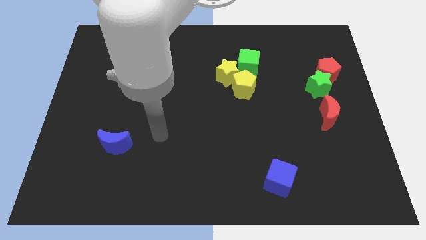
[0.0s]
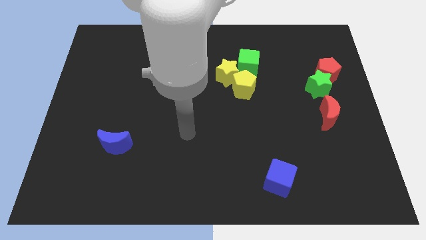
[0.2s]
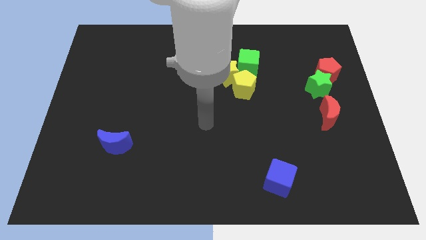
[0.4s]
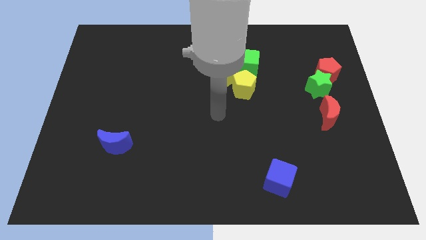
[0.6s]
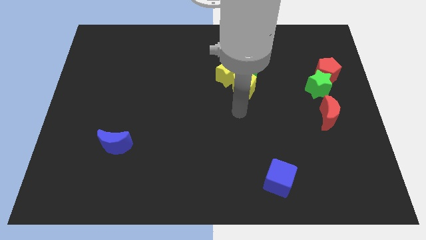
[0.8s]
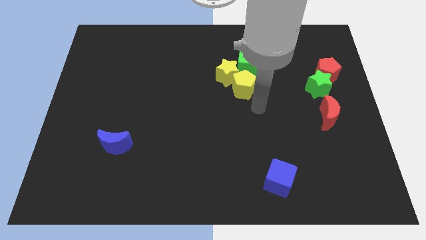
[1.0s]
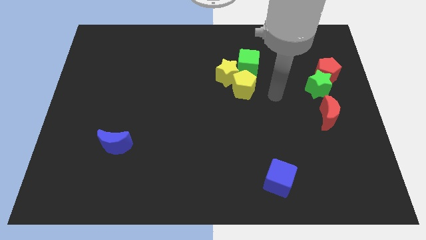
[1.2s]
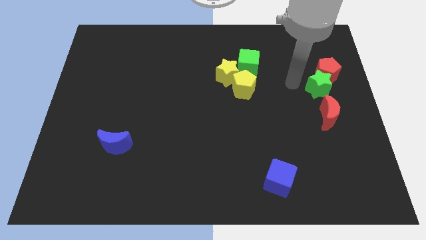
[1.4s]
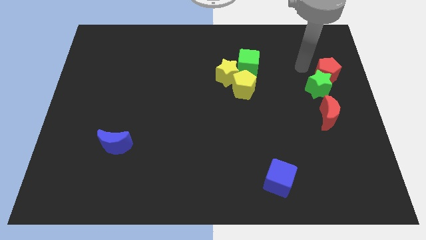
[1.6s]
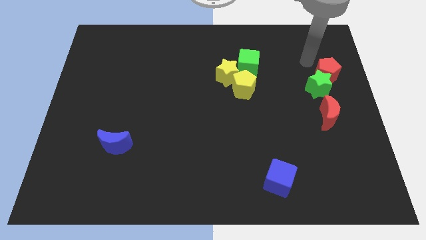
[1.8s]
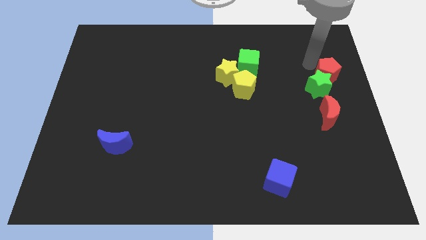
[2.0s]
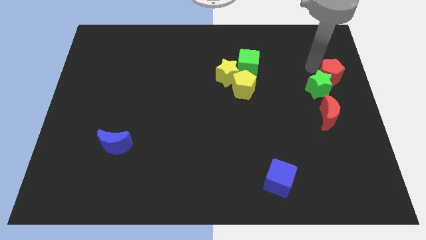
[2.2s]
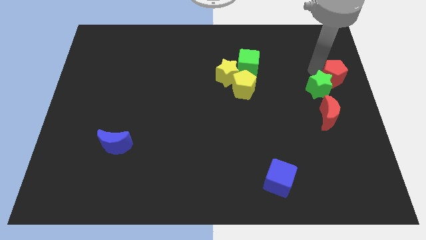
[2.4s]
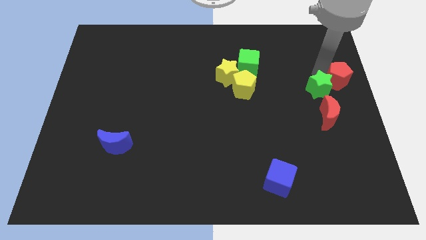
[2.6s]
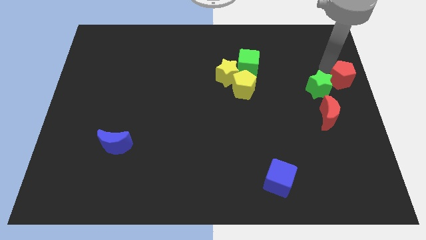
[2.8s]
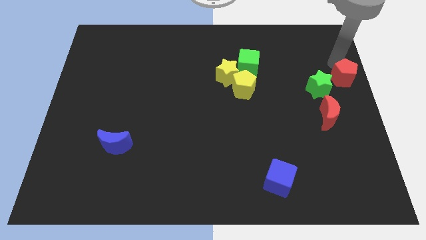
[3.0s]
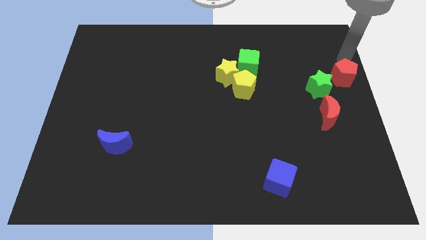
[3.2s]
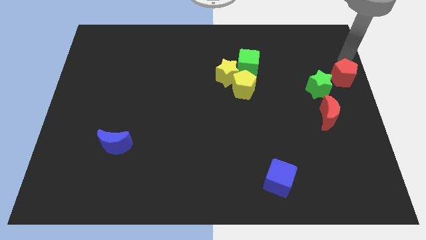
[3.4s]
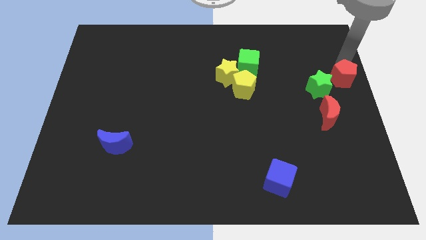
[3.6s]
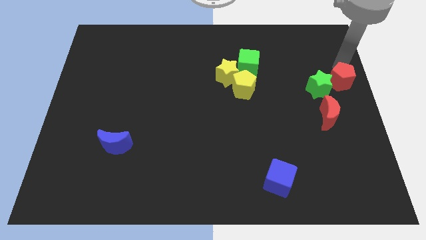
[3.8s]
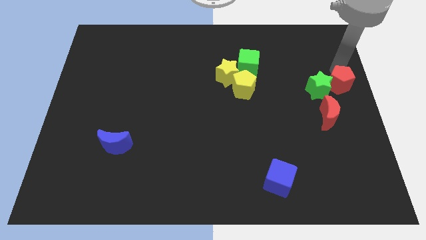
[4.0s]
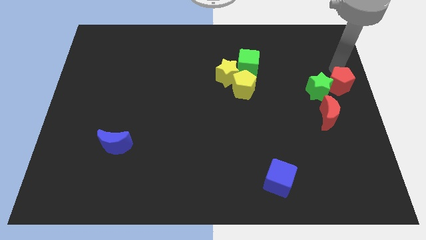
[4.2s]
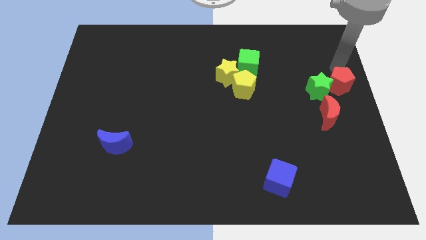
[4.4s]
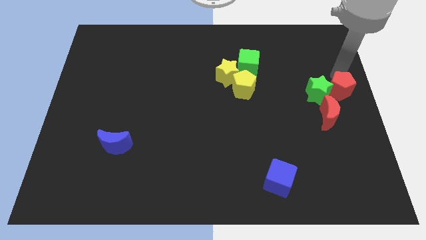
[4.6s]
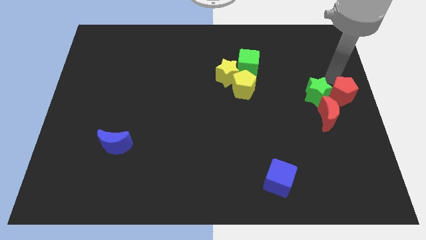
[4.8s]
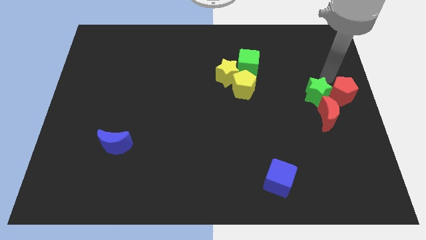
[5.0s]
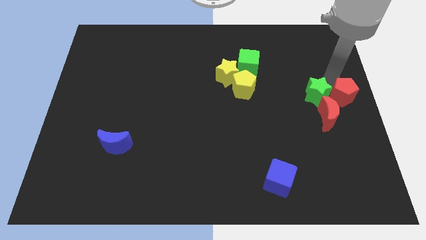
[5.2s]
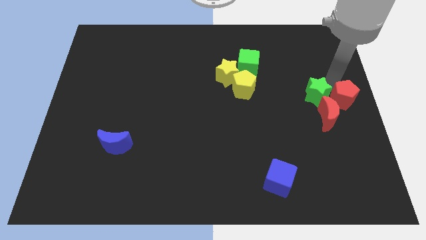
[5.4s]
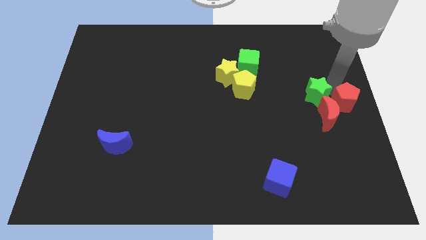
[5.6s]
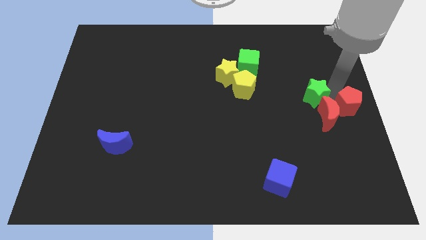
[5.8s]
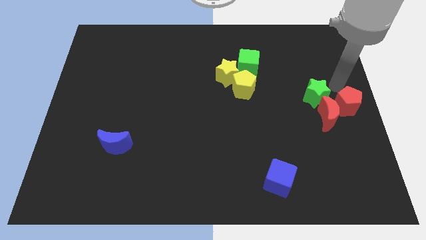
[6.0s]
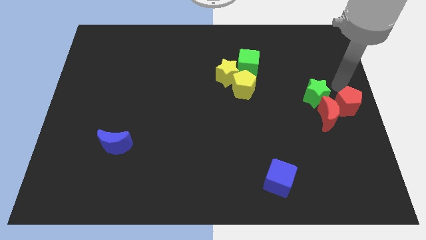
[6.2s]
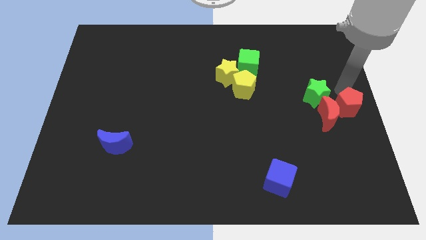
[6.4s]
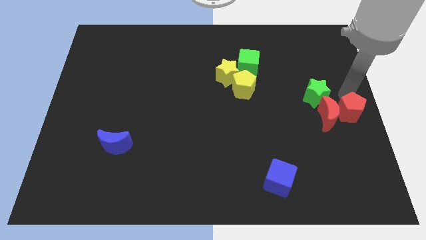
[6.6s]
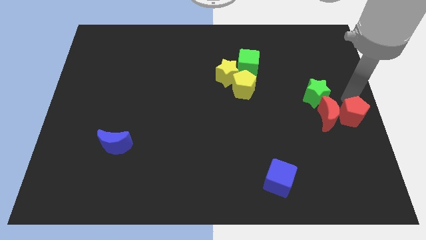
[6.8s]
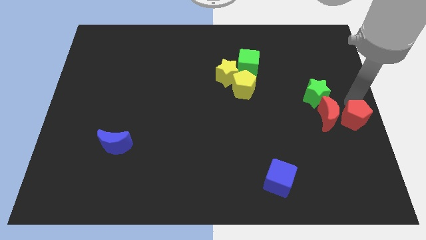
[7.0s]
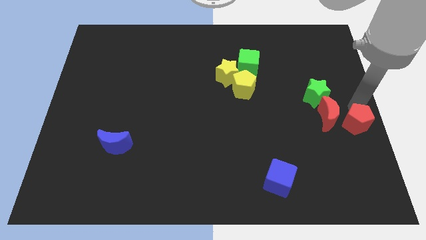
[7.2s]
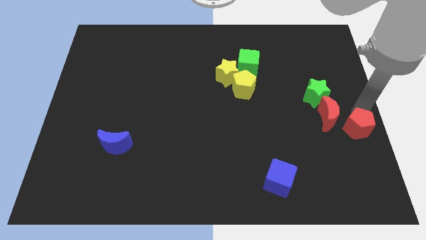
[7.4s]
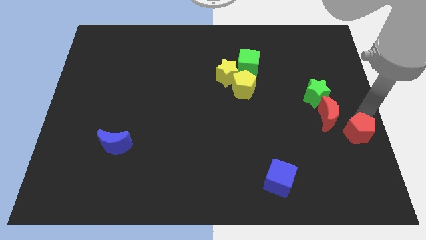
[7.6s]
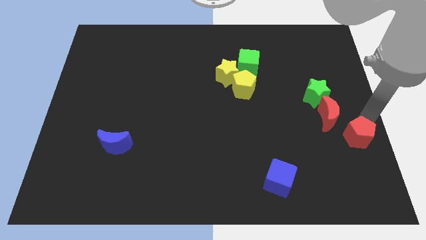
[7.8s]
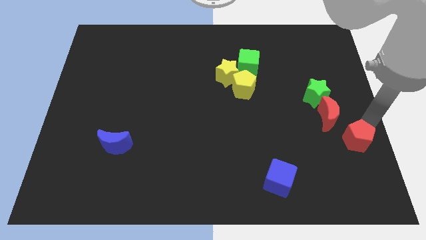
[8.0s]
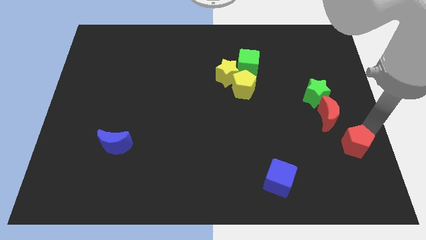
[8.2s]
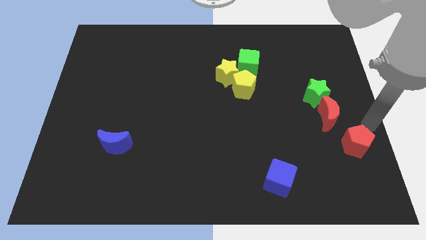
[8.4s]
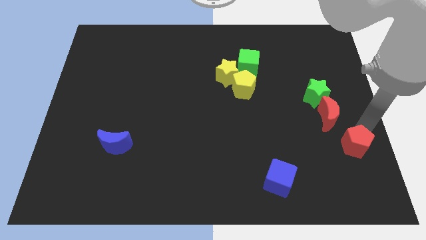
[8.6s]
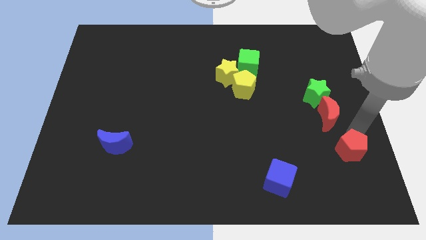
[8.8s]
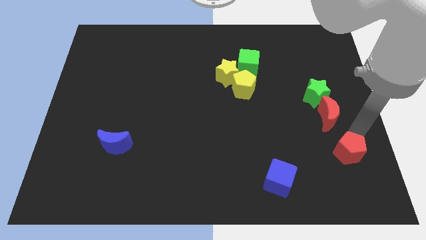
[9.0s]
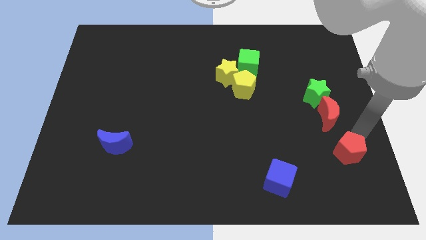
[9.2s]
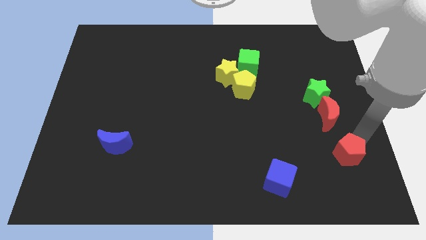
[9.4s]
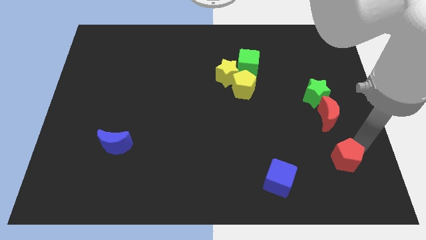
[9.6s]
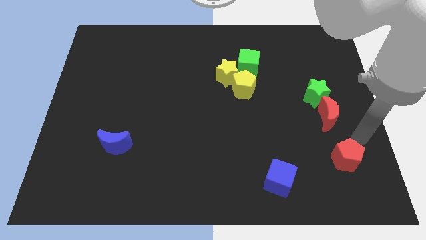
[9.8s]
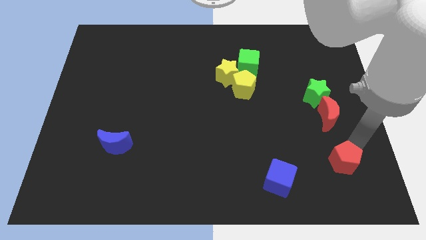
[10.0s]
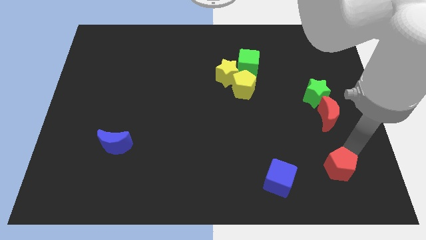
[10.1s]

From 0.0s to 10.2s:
move the red pentagon to the right side of the blue cube

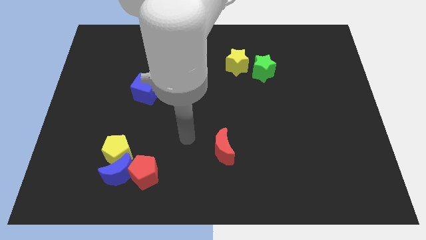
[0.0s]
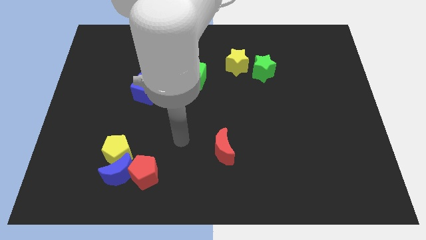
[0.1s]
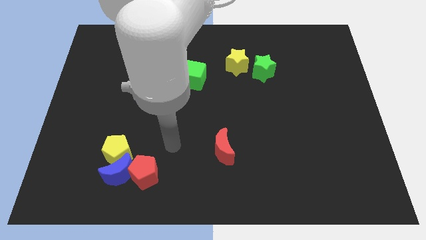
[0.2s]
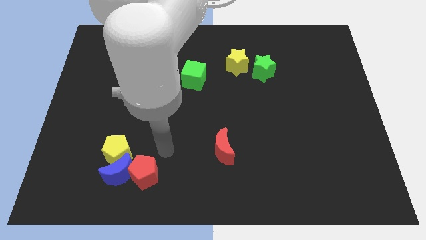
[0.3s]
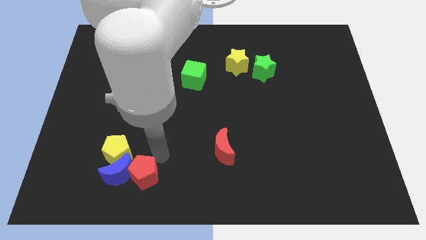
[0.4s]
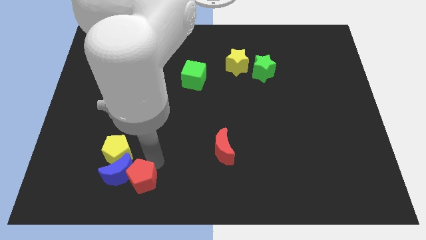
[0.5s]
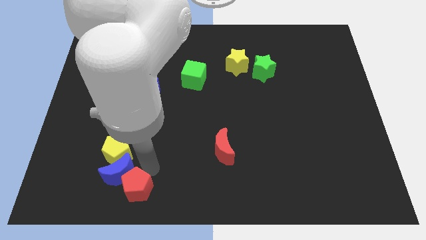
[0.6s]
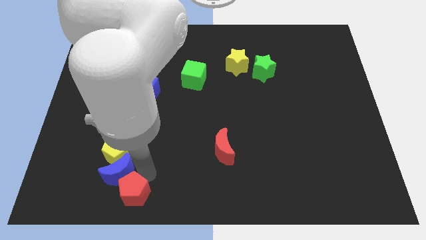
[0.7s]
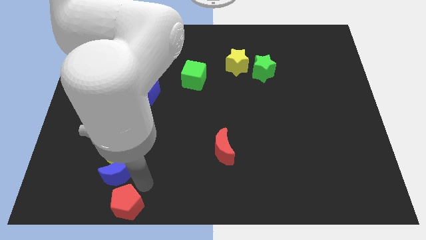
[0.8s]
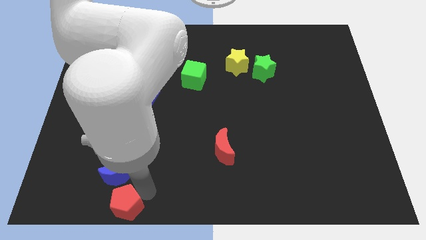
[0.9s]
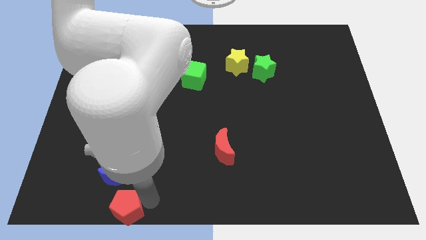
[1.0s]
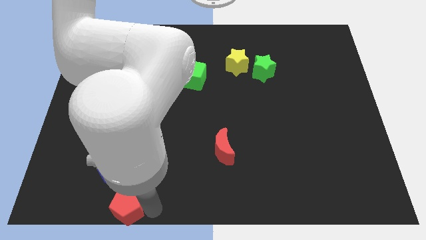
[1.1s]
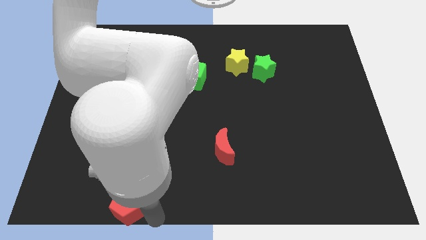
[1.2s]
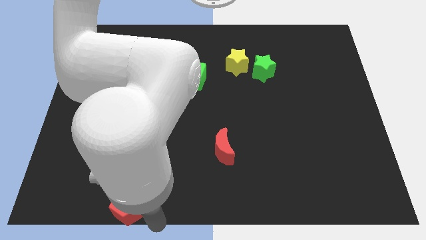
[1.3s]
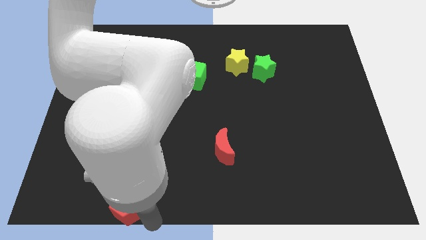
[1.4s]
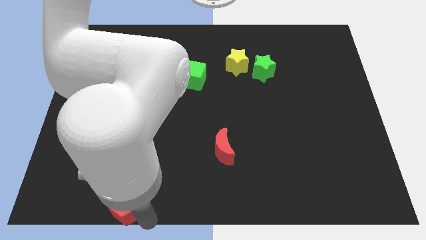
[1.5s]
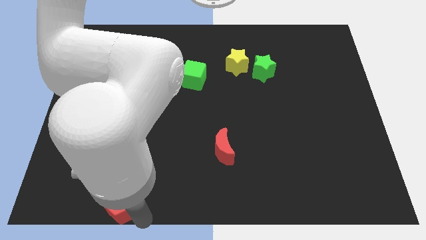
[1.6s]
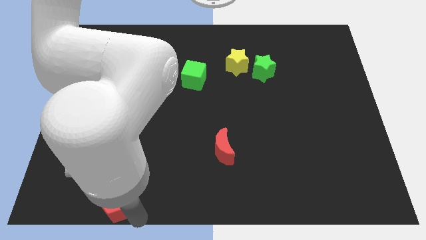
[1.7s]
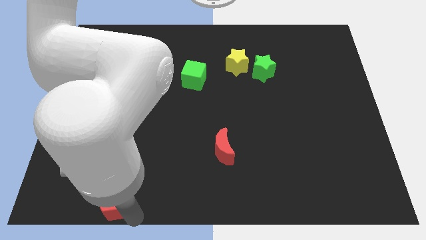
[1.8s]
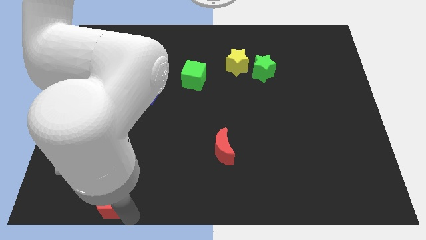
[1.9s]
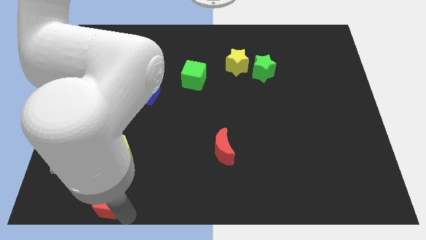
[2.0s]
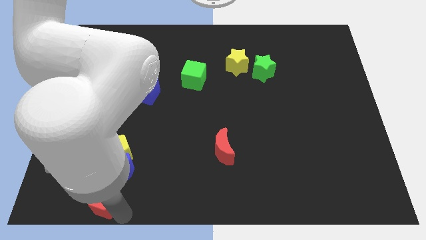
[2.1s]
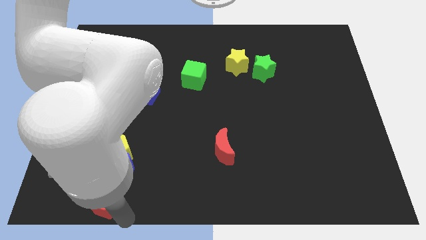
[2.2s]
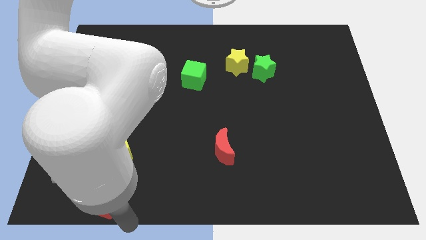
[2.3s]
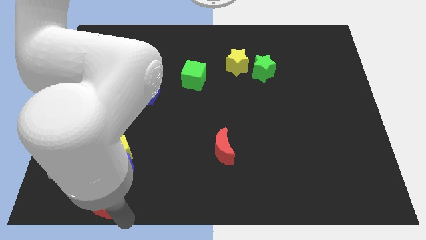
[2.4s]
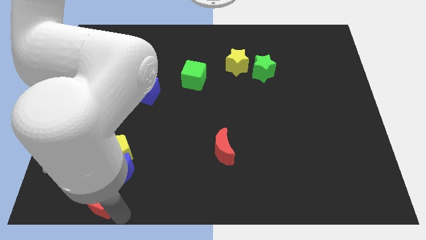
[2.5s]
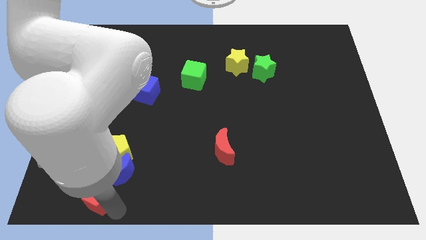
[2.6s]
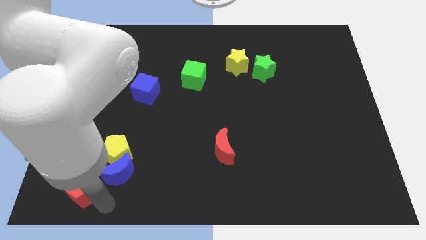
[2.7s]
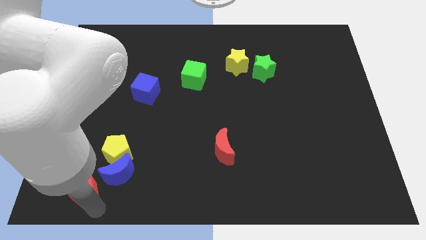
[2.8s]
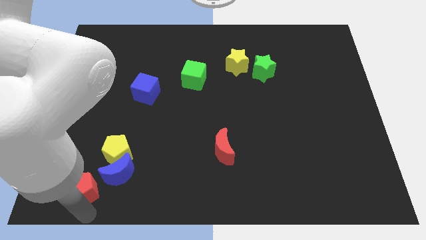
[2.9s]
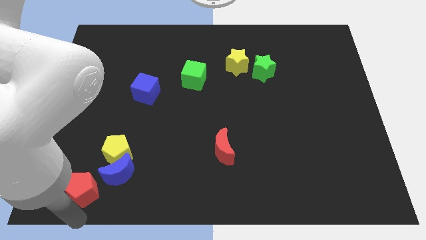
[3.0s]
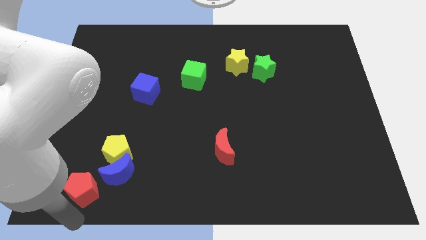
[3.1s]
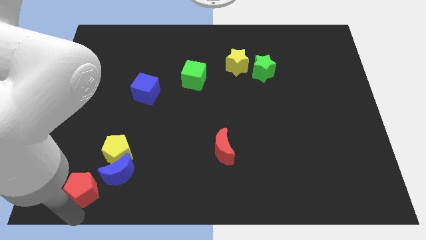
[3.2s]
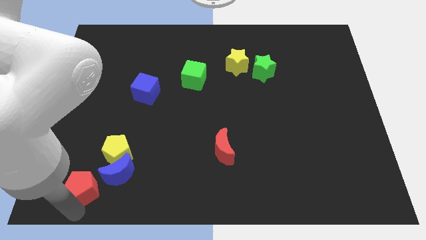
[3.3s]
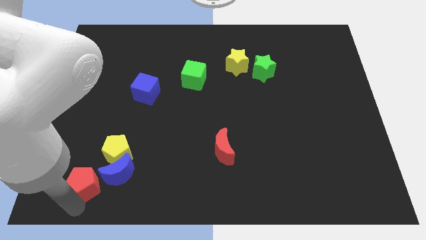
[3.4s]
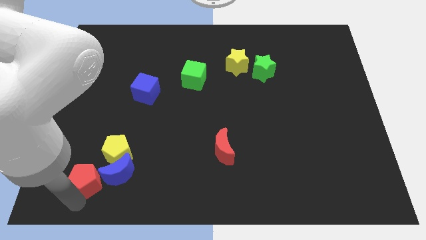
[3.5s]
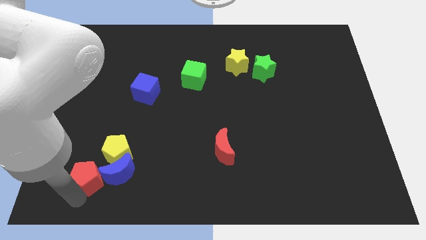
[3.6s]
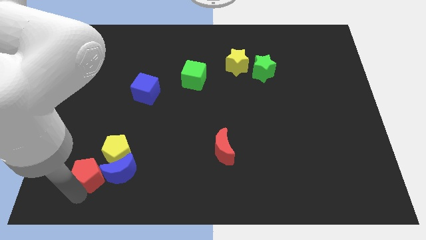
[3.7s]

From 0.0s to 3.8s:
put the red pentagon to the top left of the blue moon
